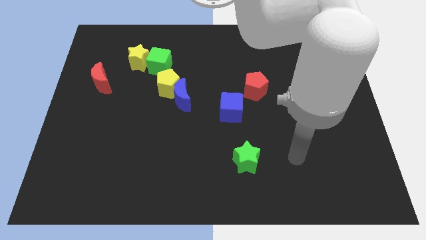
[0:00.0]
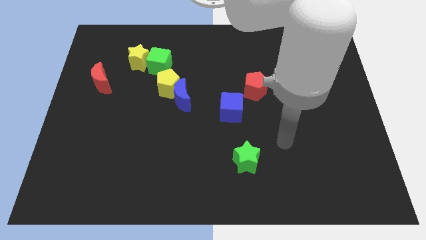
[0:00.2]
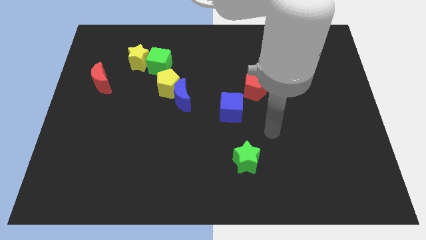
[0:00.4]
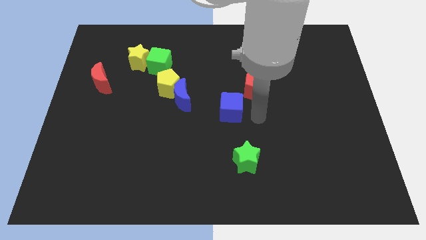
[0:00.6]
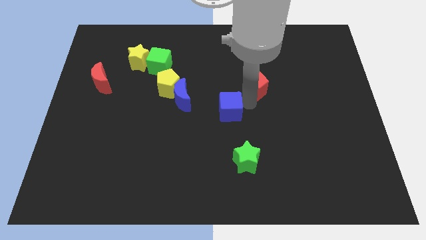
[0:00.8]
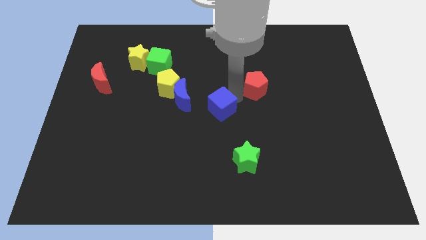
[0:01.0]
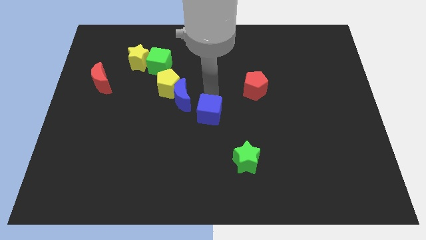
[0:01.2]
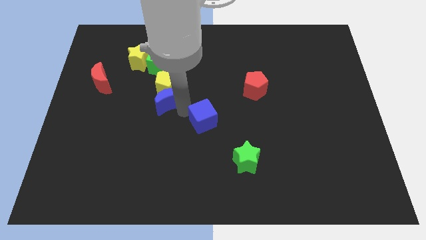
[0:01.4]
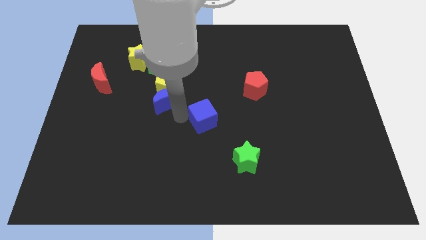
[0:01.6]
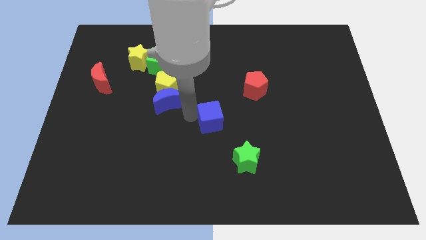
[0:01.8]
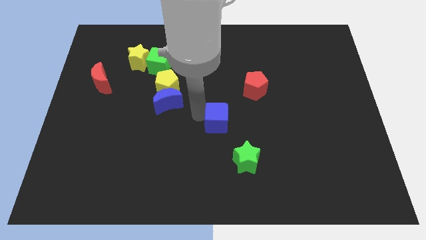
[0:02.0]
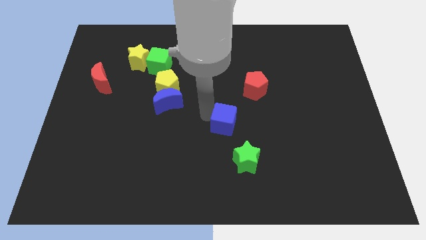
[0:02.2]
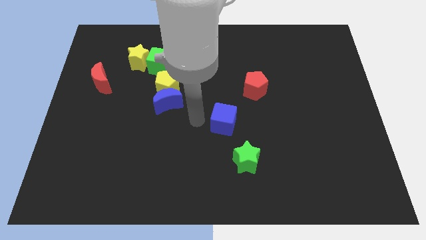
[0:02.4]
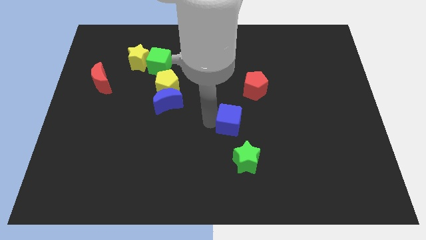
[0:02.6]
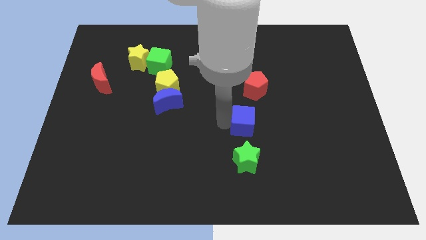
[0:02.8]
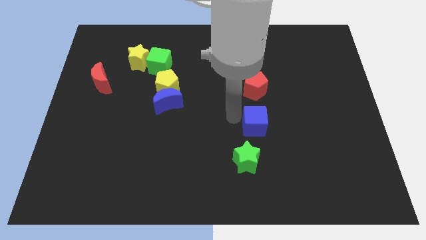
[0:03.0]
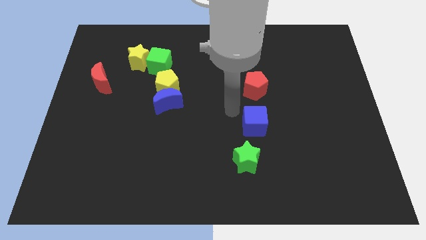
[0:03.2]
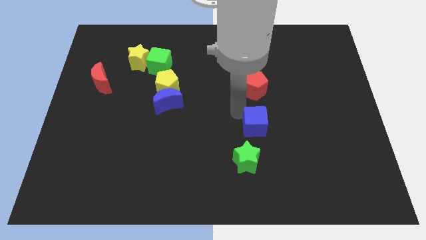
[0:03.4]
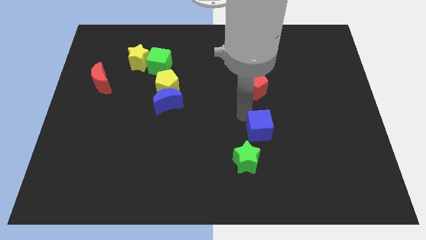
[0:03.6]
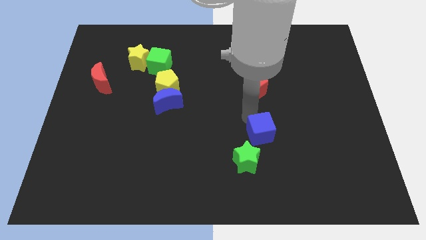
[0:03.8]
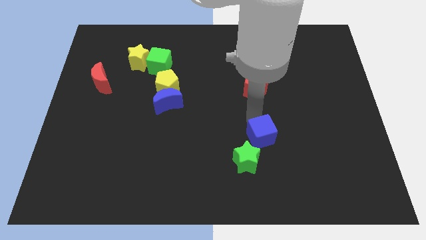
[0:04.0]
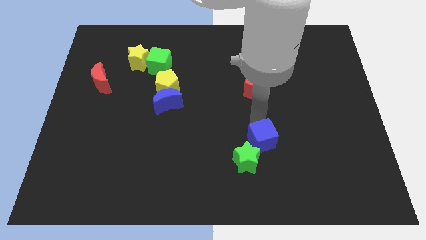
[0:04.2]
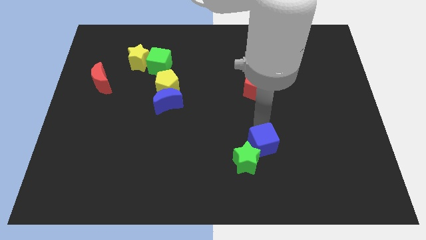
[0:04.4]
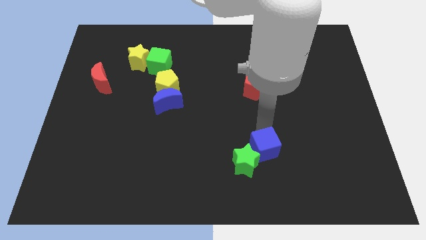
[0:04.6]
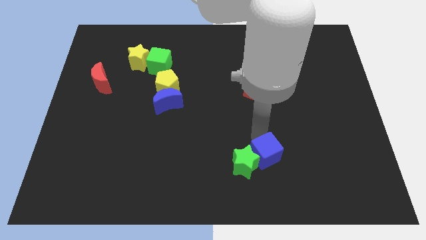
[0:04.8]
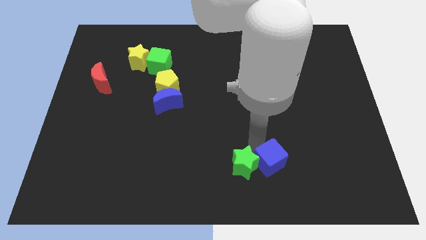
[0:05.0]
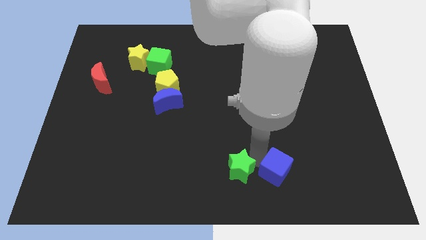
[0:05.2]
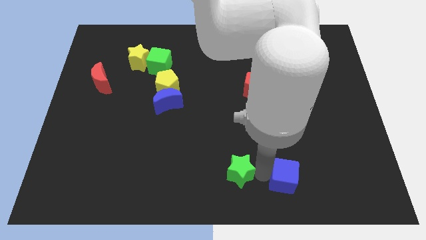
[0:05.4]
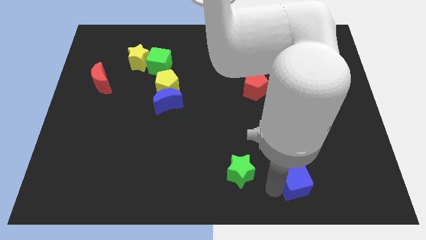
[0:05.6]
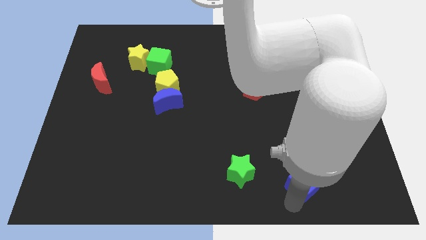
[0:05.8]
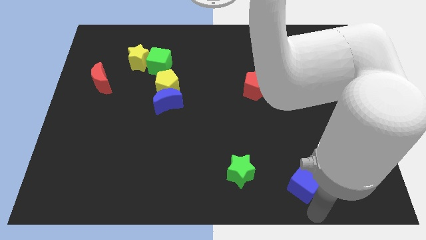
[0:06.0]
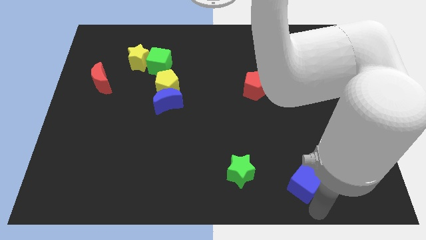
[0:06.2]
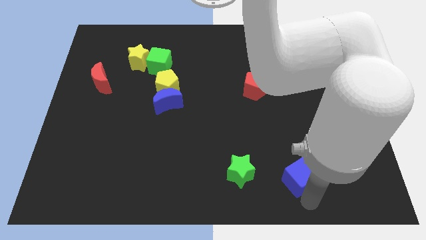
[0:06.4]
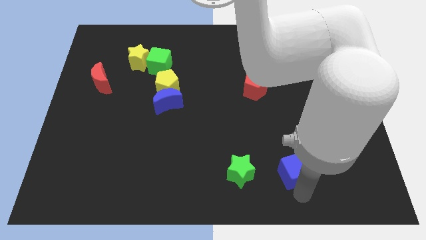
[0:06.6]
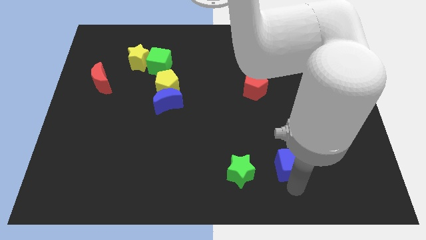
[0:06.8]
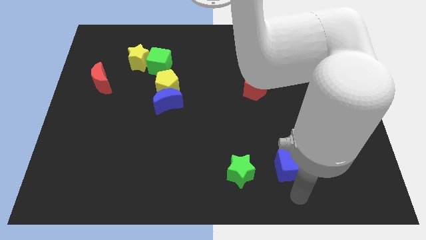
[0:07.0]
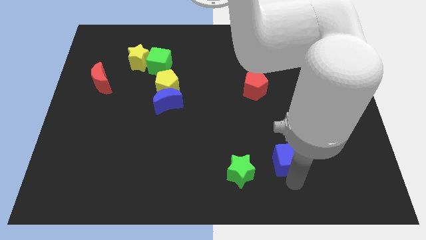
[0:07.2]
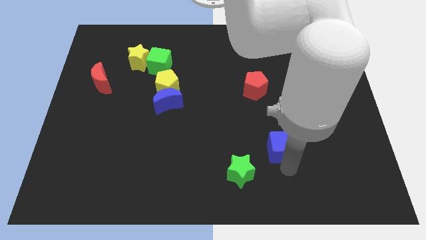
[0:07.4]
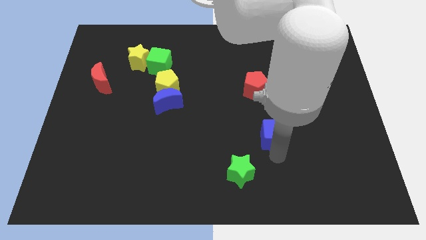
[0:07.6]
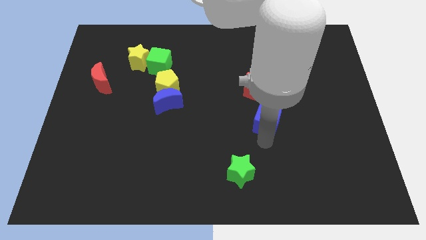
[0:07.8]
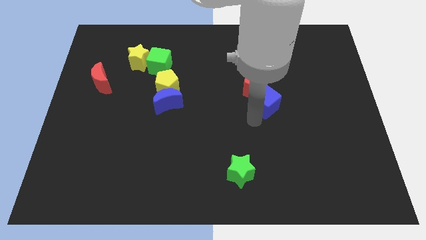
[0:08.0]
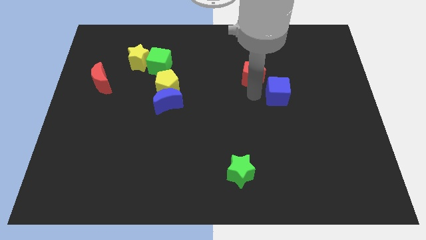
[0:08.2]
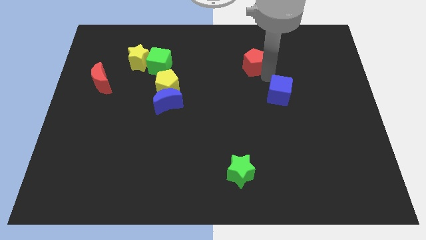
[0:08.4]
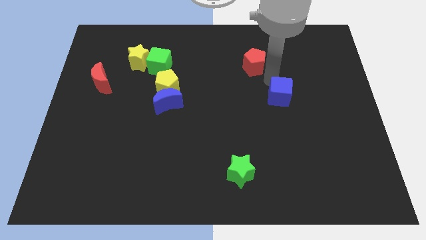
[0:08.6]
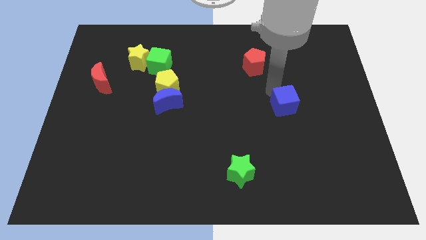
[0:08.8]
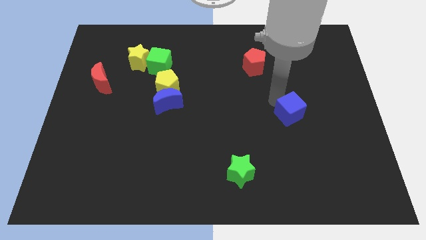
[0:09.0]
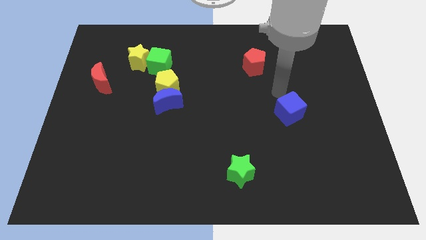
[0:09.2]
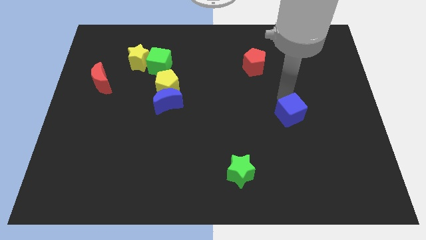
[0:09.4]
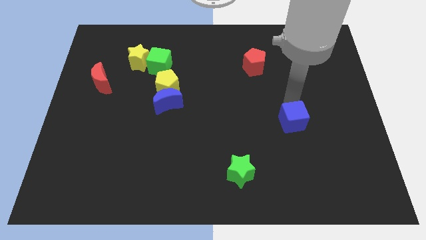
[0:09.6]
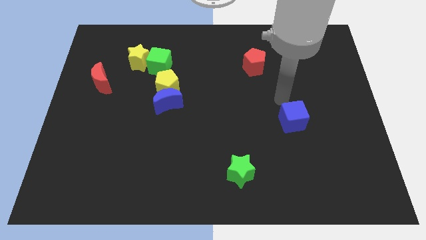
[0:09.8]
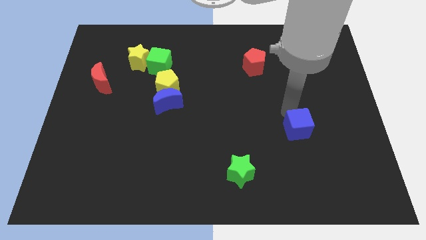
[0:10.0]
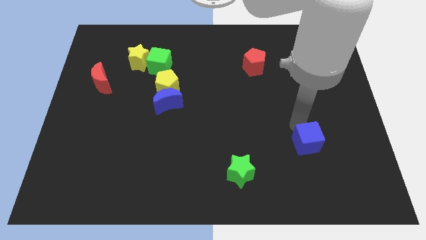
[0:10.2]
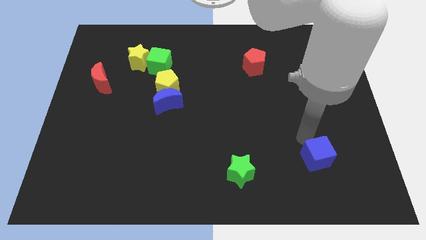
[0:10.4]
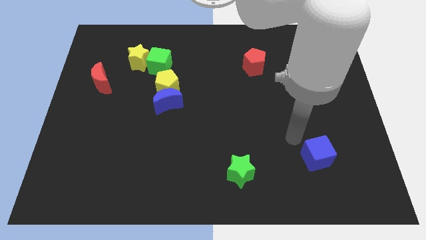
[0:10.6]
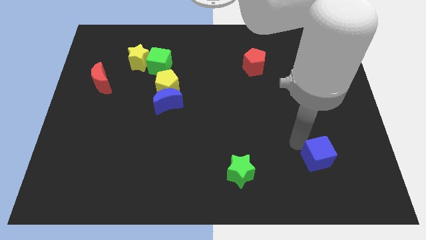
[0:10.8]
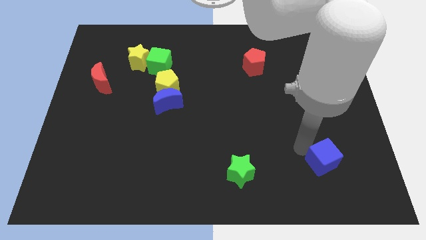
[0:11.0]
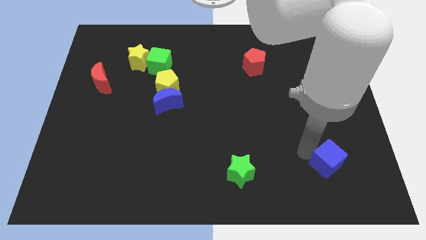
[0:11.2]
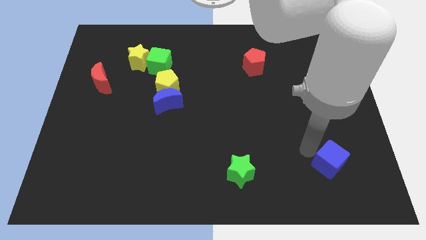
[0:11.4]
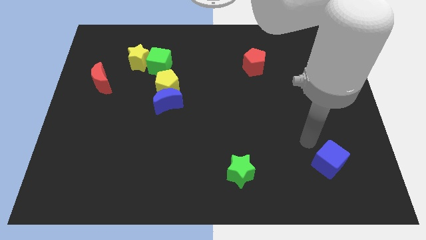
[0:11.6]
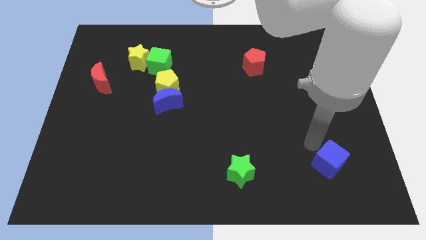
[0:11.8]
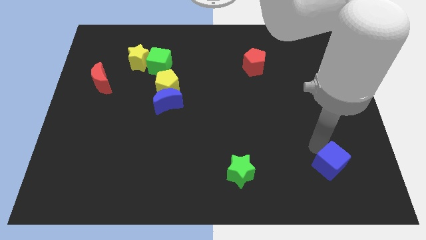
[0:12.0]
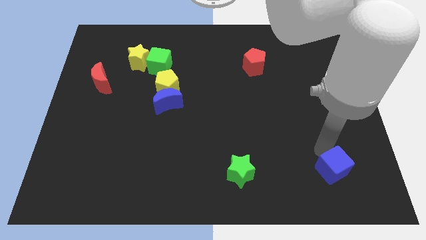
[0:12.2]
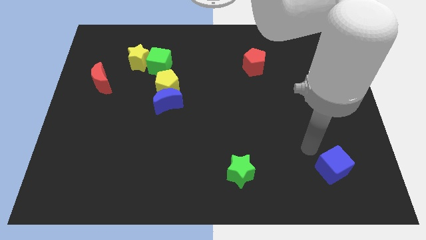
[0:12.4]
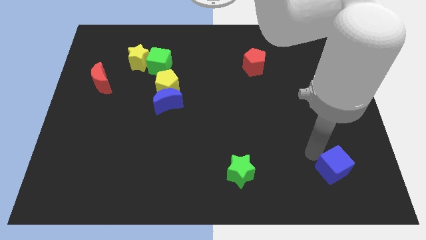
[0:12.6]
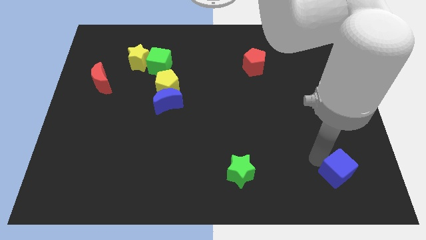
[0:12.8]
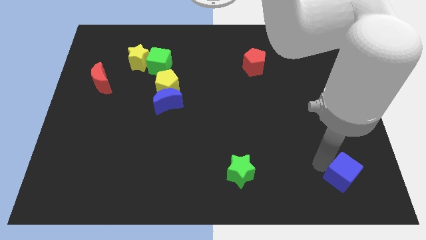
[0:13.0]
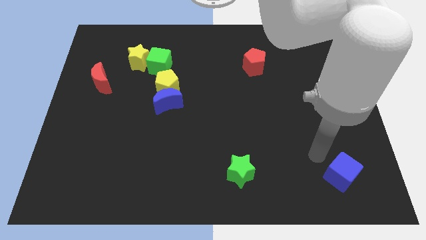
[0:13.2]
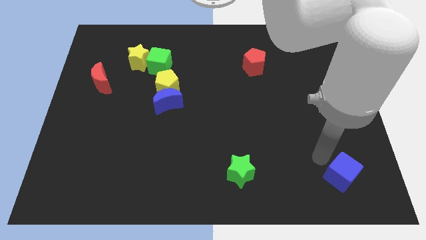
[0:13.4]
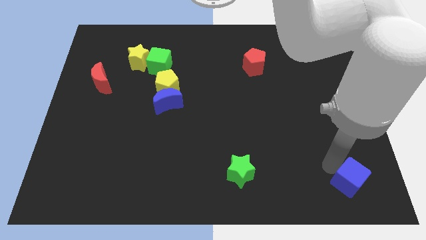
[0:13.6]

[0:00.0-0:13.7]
put the blue cube to the bottom right corner
